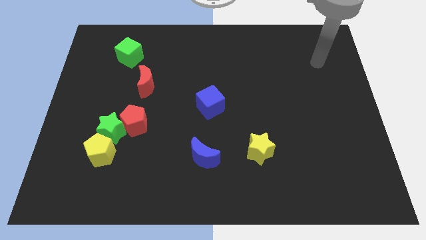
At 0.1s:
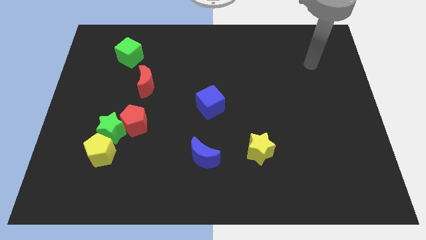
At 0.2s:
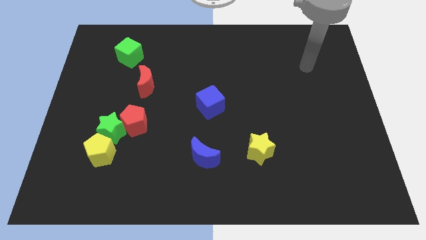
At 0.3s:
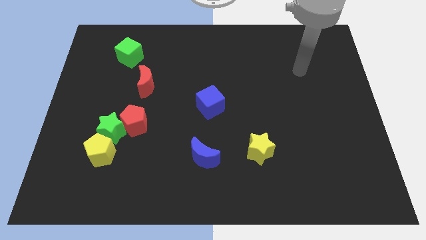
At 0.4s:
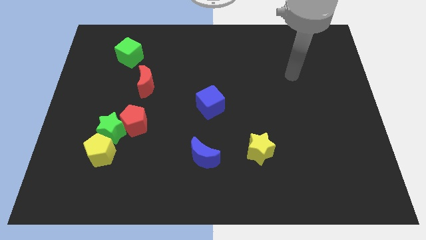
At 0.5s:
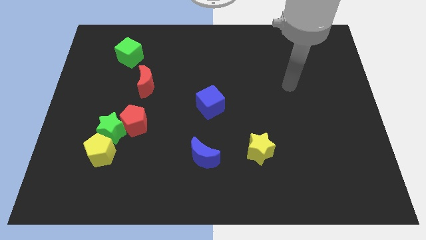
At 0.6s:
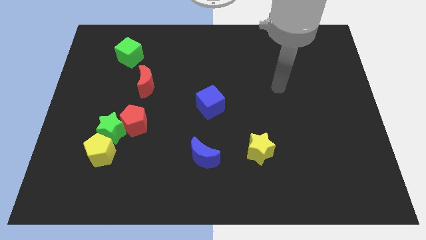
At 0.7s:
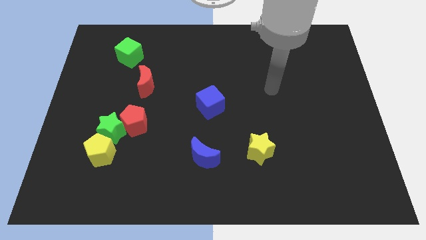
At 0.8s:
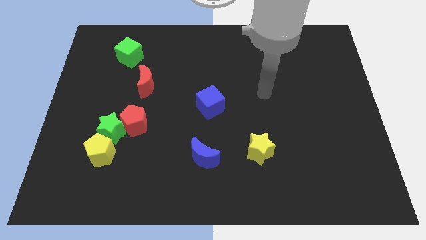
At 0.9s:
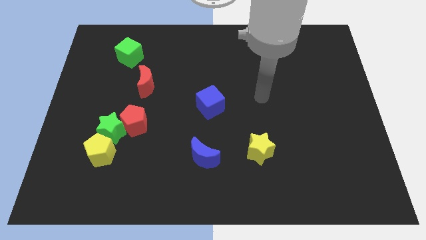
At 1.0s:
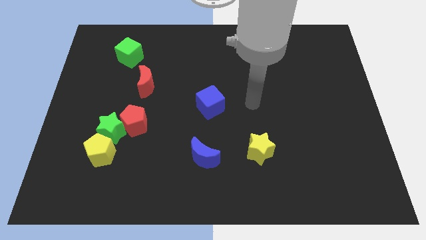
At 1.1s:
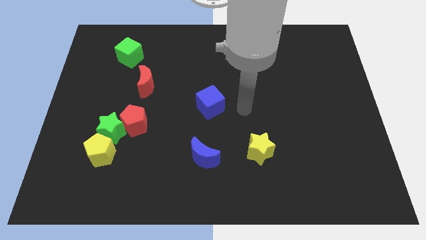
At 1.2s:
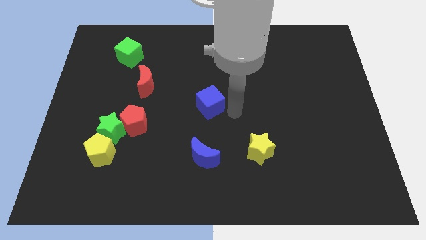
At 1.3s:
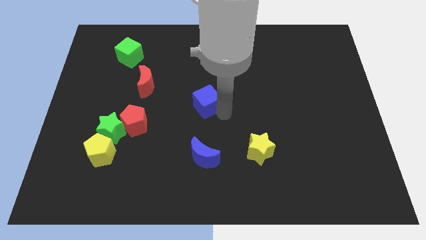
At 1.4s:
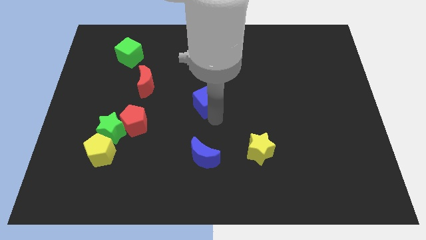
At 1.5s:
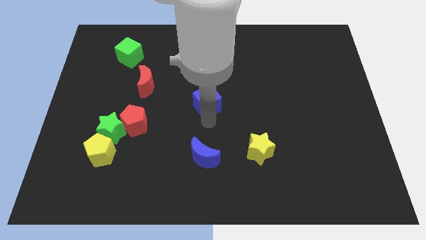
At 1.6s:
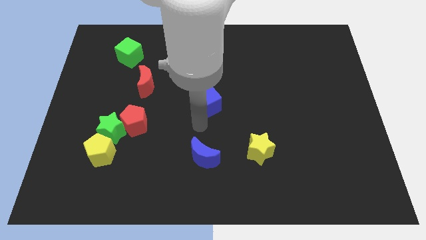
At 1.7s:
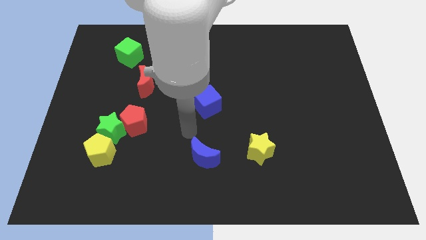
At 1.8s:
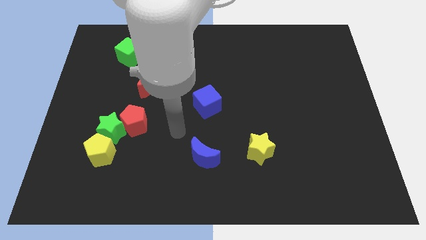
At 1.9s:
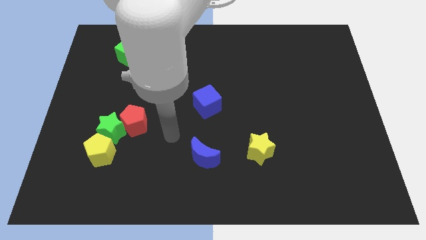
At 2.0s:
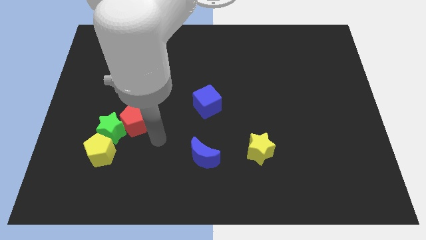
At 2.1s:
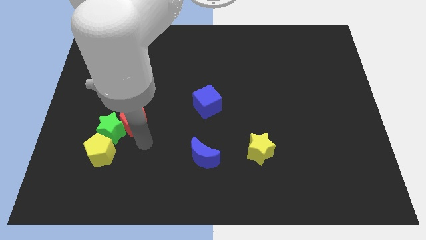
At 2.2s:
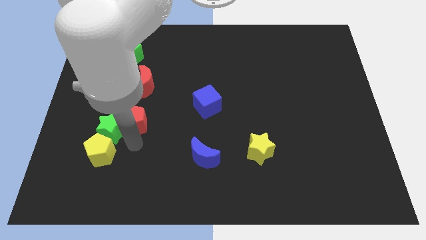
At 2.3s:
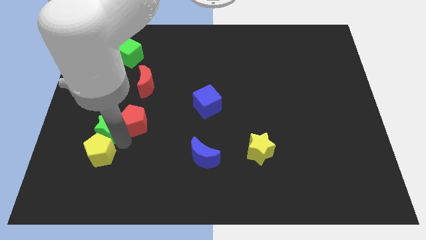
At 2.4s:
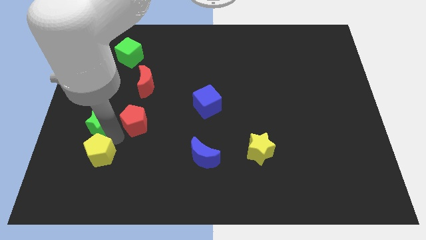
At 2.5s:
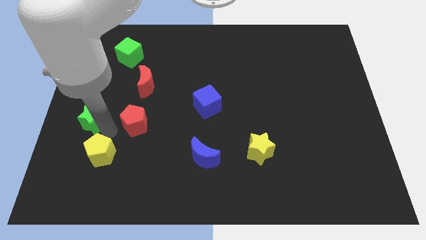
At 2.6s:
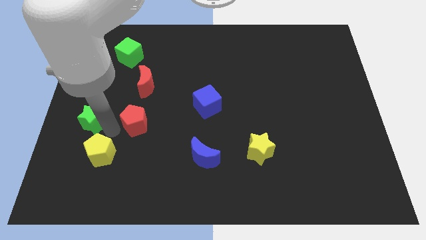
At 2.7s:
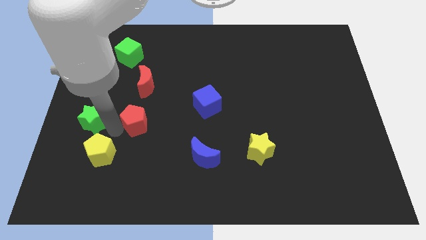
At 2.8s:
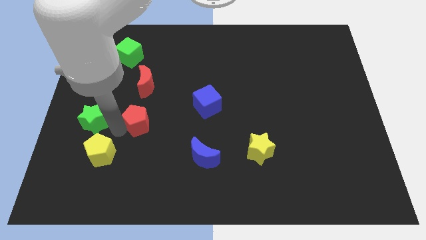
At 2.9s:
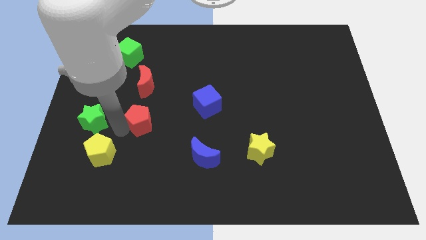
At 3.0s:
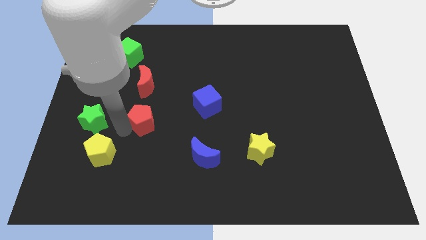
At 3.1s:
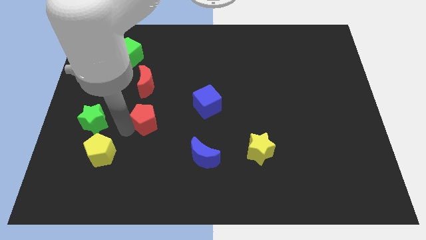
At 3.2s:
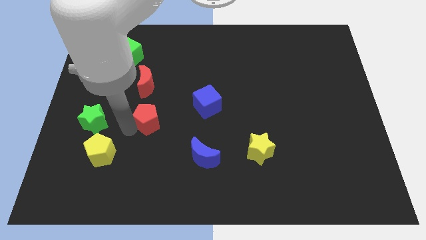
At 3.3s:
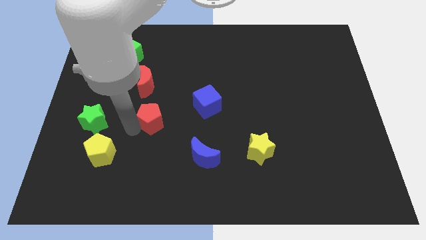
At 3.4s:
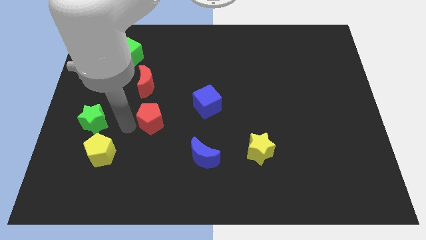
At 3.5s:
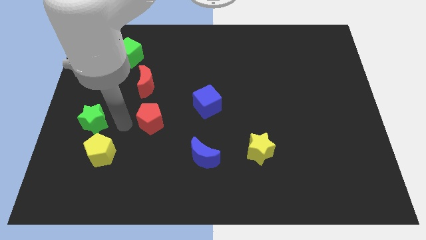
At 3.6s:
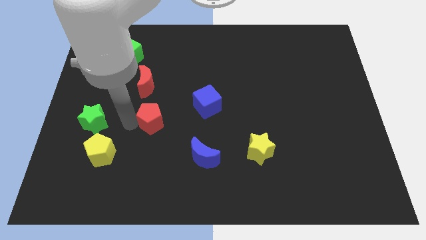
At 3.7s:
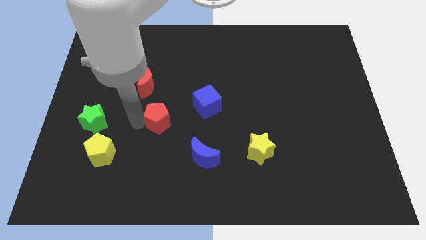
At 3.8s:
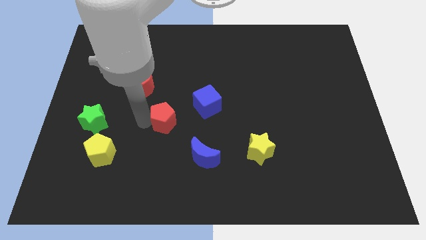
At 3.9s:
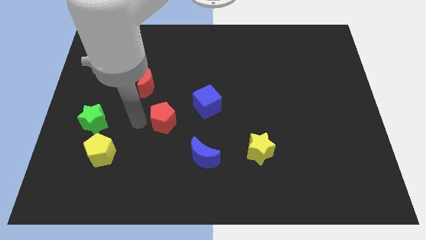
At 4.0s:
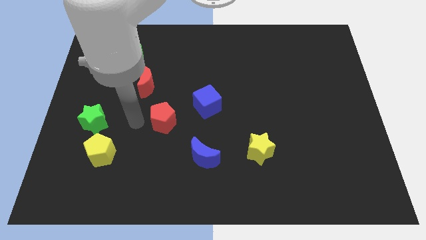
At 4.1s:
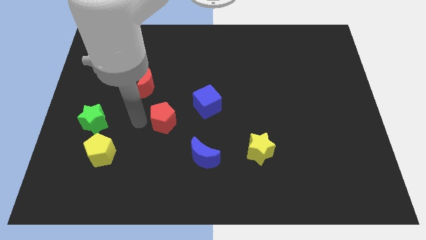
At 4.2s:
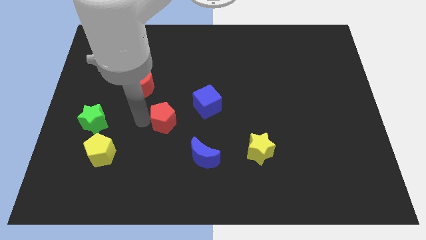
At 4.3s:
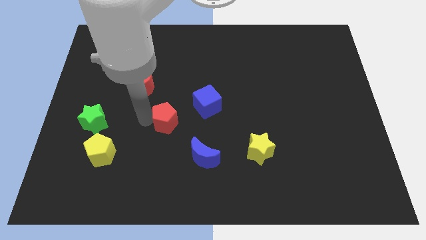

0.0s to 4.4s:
slightly slide the red pentagon right

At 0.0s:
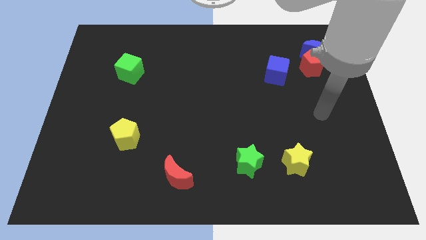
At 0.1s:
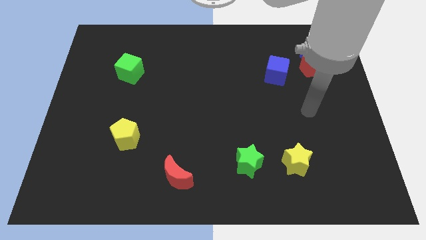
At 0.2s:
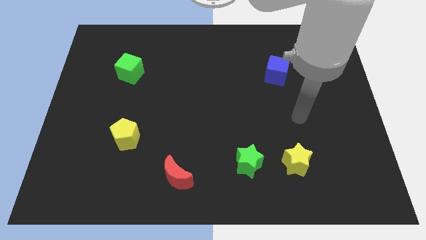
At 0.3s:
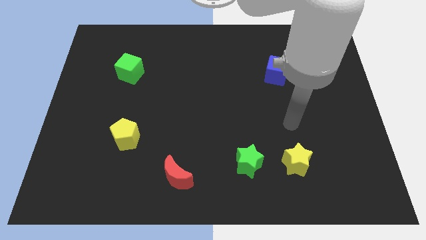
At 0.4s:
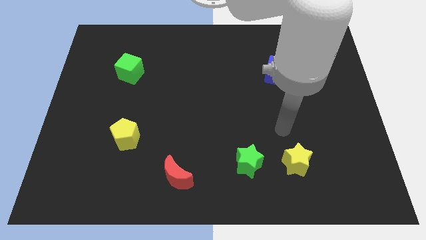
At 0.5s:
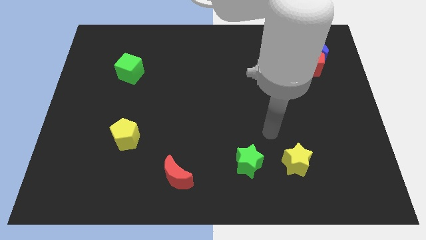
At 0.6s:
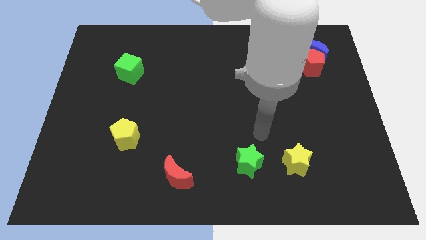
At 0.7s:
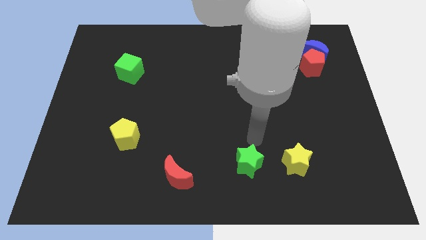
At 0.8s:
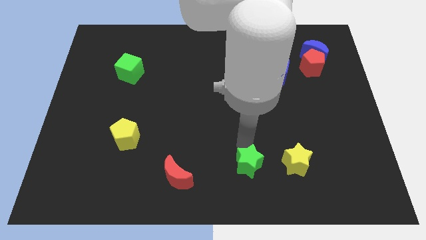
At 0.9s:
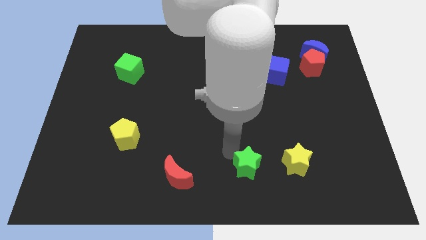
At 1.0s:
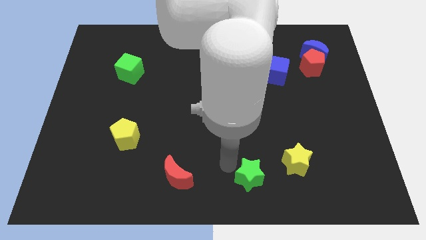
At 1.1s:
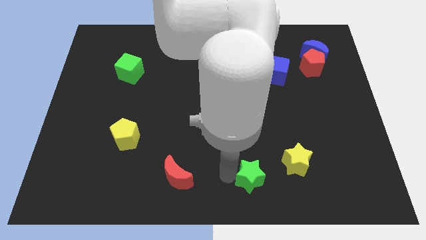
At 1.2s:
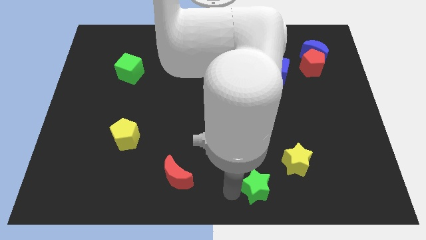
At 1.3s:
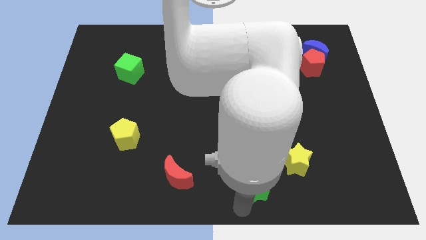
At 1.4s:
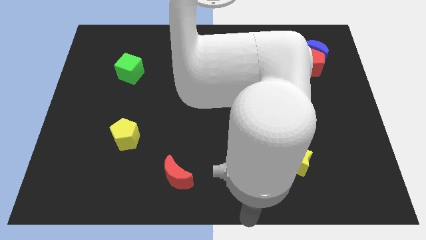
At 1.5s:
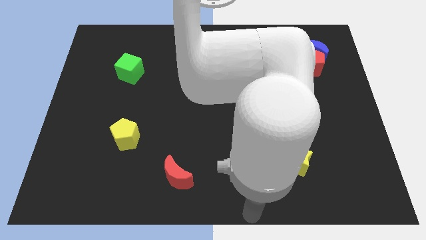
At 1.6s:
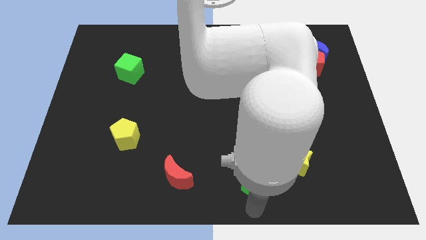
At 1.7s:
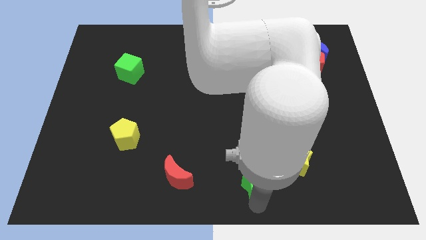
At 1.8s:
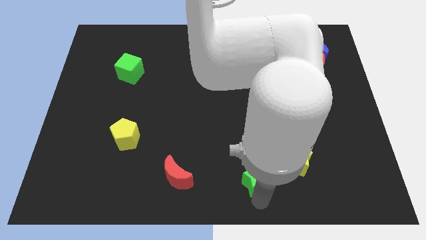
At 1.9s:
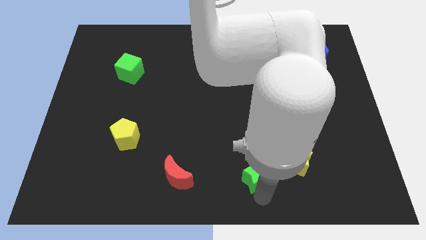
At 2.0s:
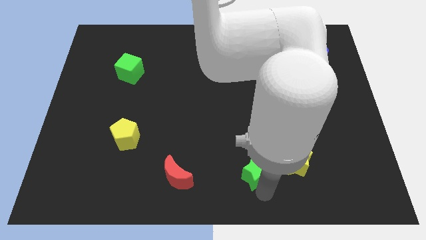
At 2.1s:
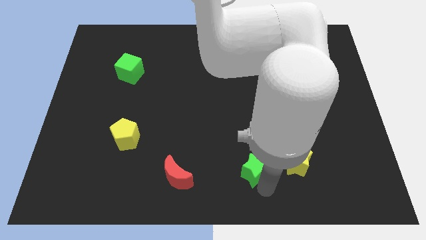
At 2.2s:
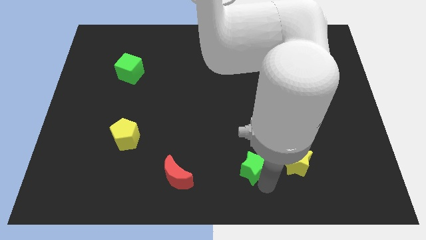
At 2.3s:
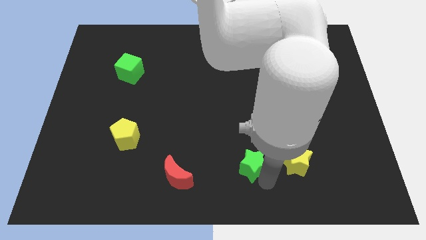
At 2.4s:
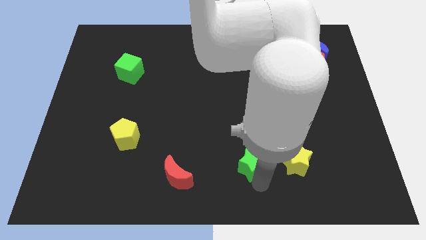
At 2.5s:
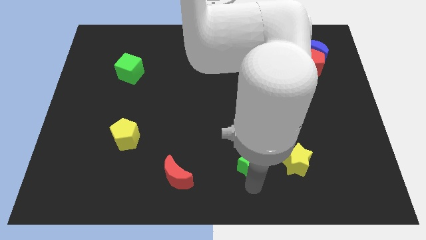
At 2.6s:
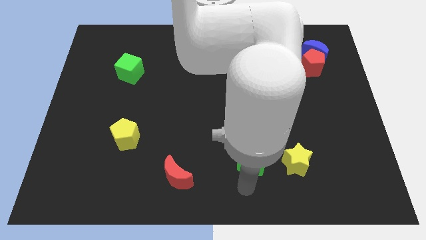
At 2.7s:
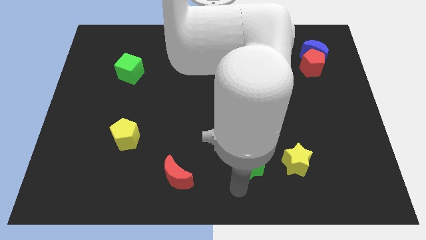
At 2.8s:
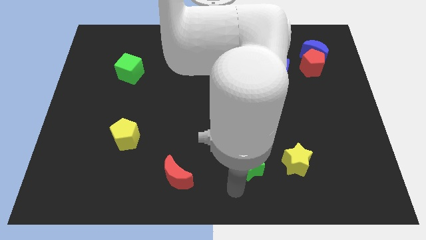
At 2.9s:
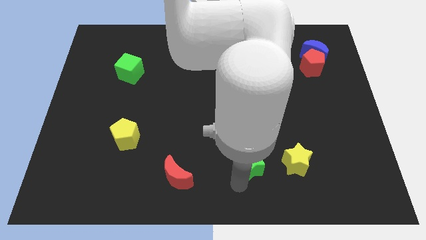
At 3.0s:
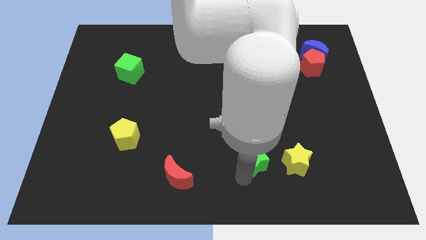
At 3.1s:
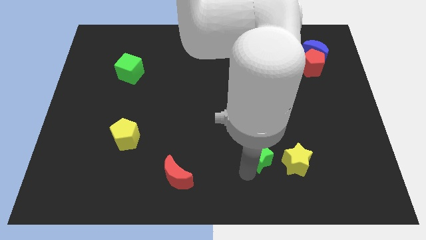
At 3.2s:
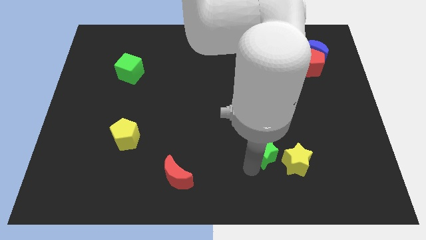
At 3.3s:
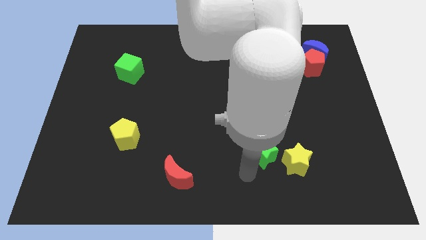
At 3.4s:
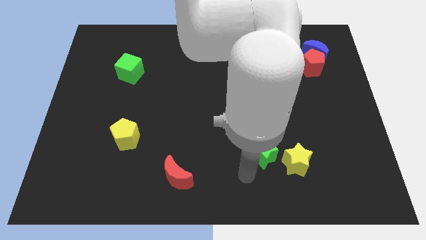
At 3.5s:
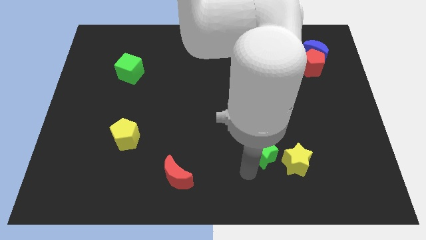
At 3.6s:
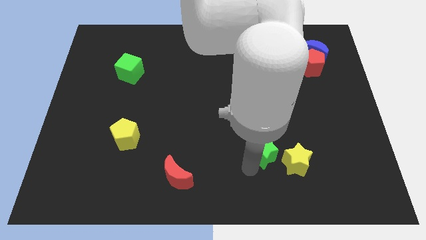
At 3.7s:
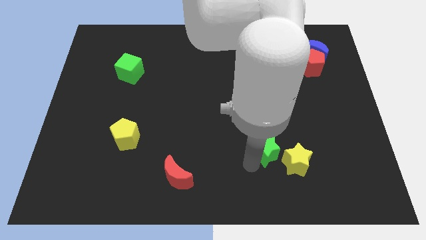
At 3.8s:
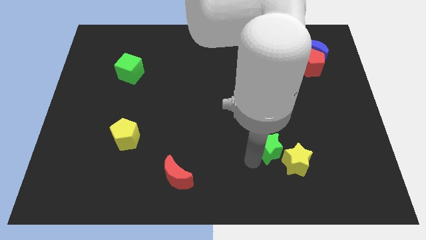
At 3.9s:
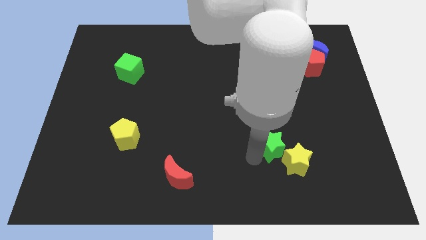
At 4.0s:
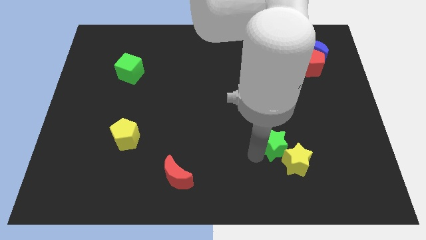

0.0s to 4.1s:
slide the green star up and then to the right somewhat
